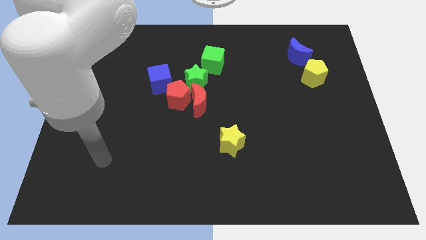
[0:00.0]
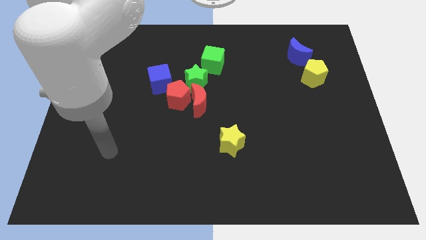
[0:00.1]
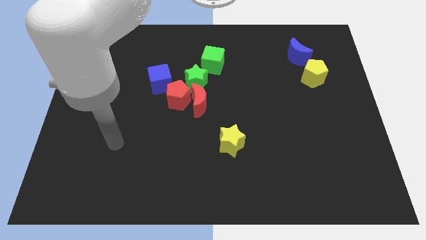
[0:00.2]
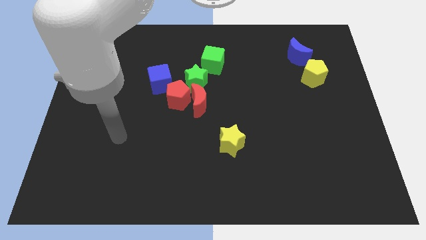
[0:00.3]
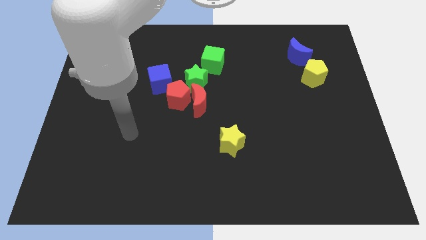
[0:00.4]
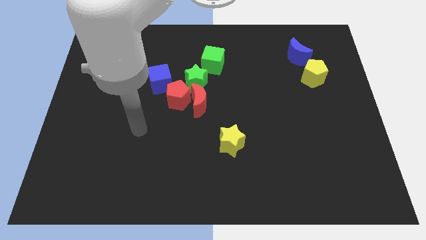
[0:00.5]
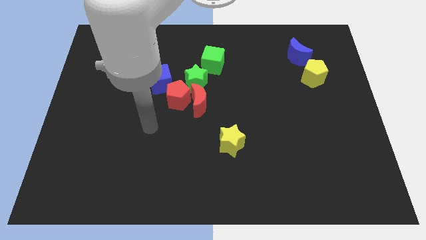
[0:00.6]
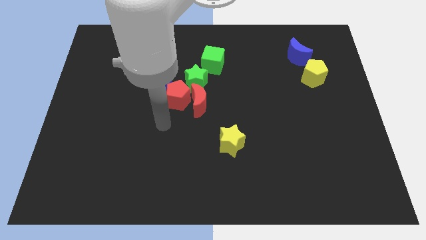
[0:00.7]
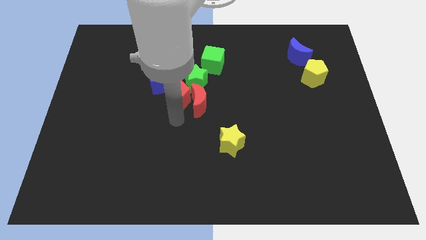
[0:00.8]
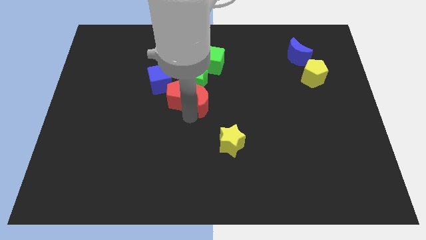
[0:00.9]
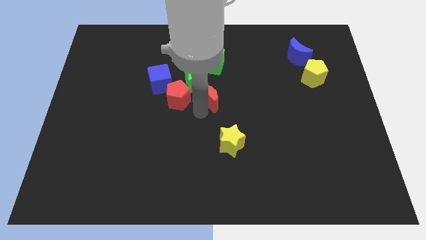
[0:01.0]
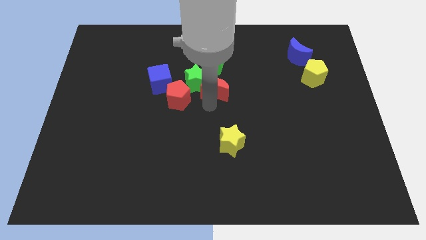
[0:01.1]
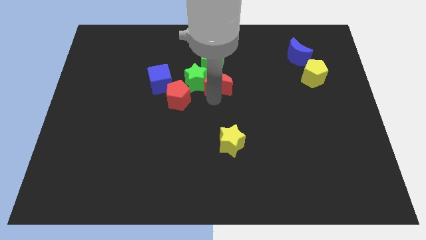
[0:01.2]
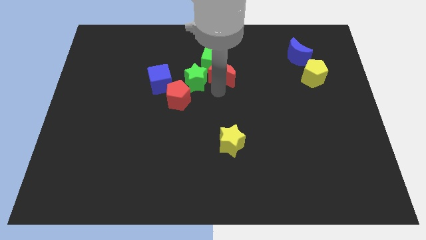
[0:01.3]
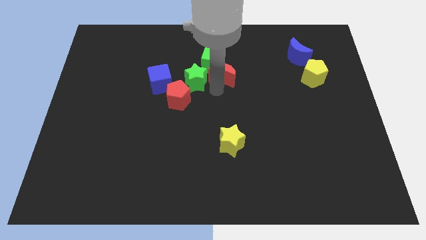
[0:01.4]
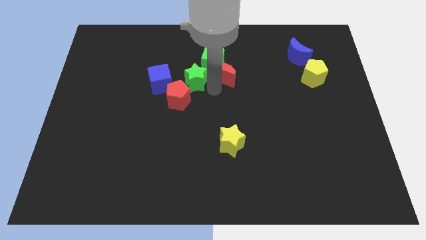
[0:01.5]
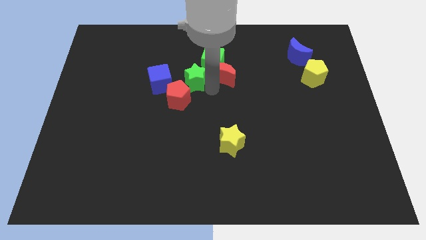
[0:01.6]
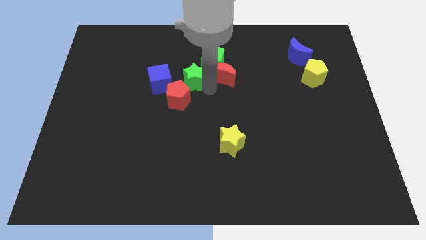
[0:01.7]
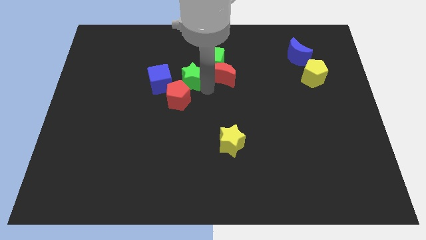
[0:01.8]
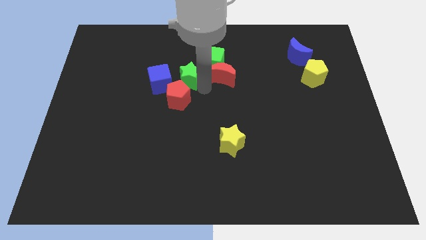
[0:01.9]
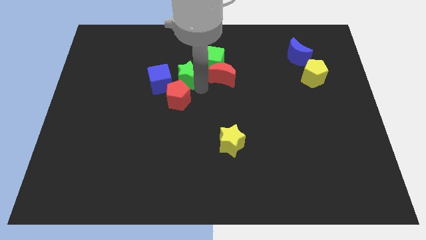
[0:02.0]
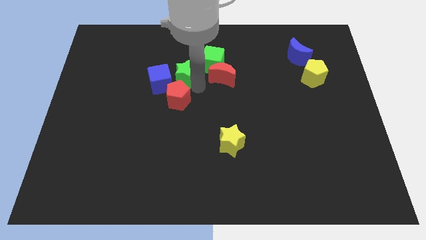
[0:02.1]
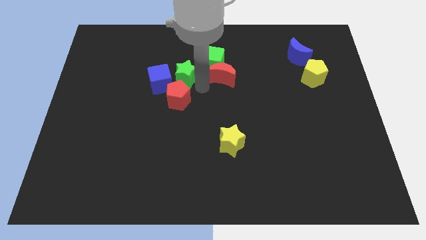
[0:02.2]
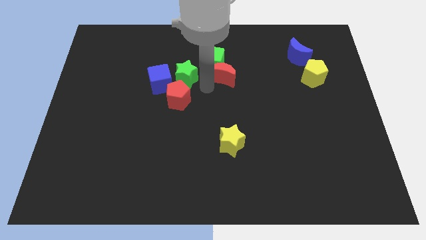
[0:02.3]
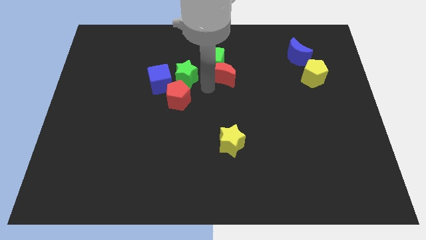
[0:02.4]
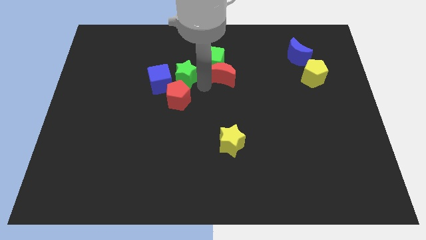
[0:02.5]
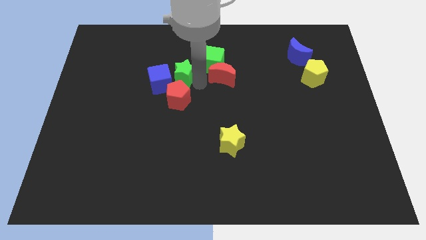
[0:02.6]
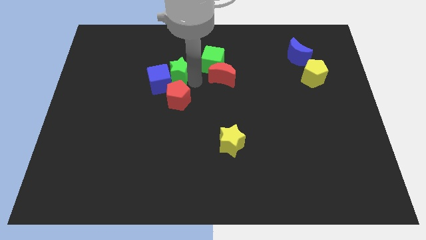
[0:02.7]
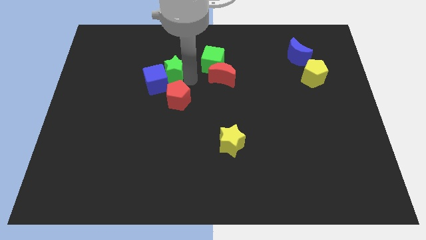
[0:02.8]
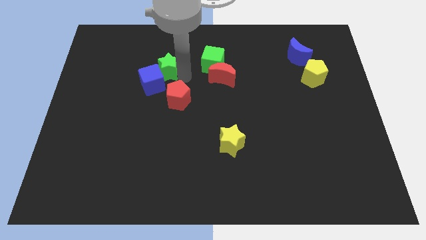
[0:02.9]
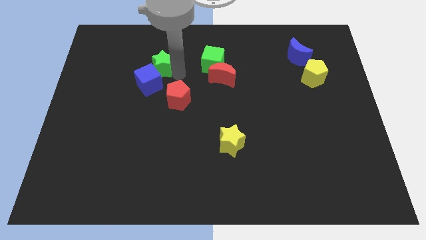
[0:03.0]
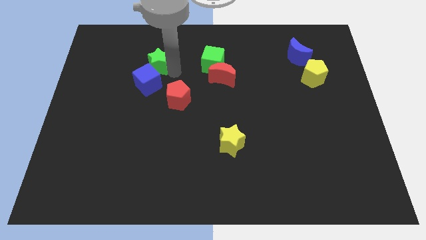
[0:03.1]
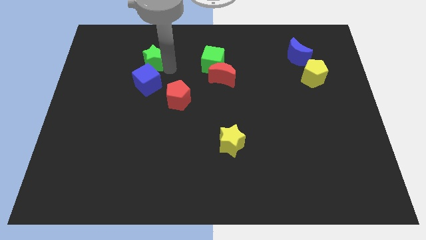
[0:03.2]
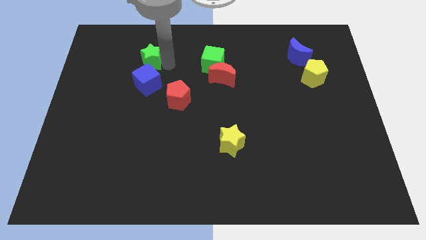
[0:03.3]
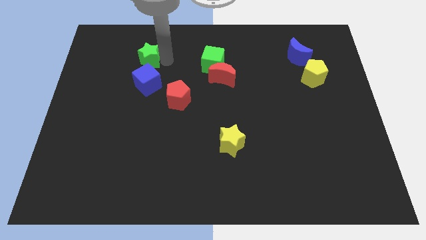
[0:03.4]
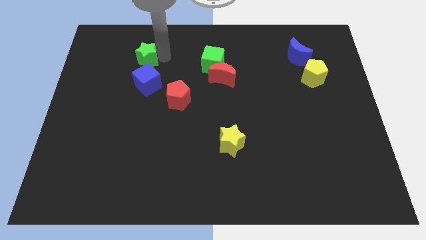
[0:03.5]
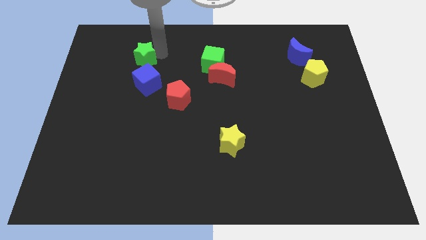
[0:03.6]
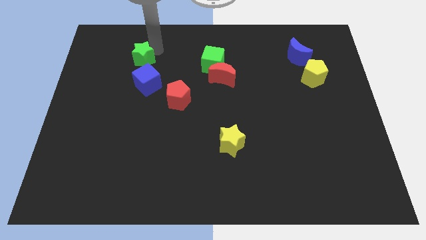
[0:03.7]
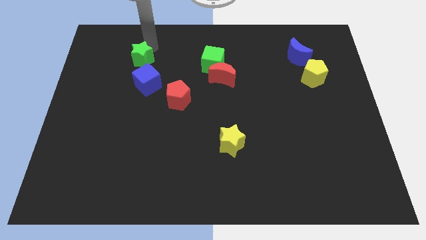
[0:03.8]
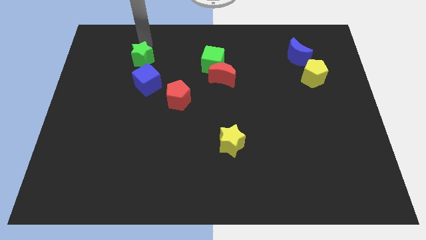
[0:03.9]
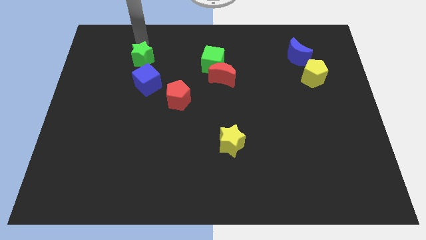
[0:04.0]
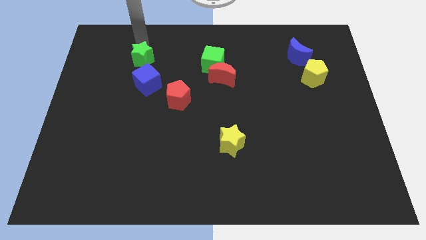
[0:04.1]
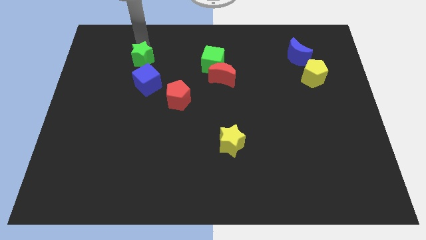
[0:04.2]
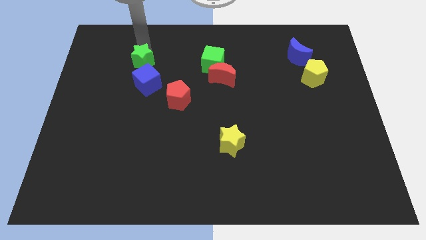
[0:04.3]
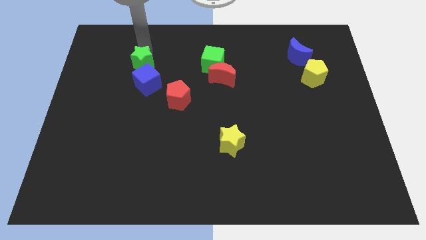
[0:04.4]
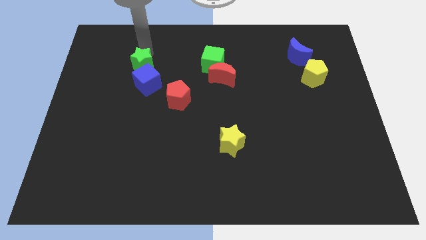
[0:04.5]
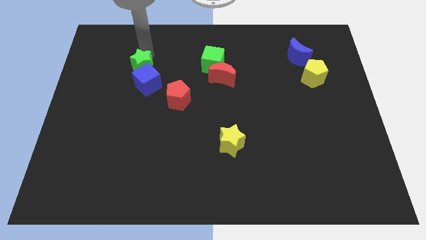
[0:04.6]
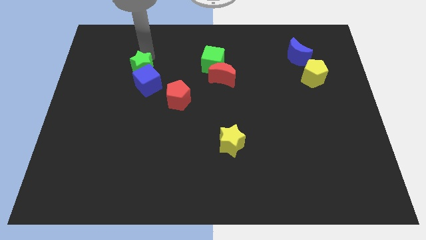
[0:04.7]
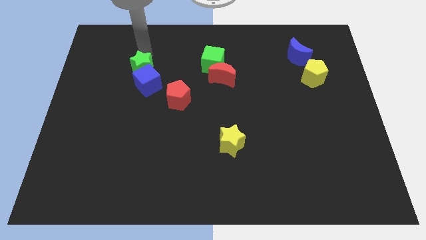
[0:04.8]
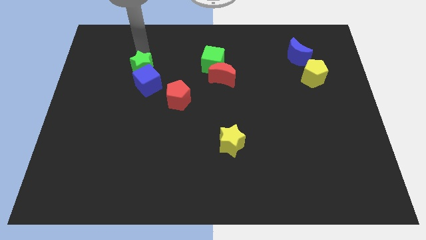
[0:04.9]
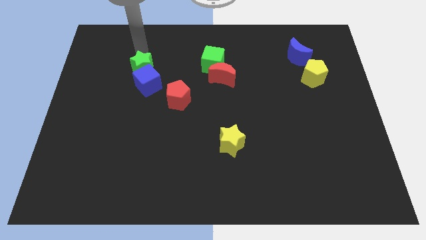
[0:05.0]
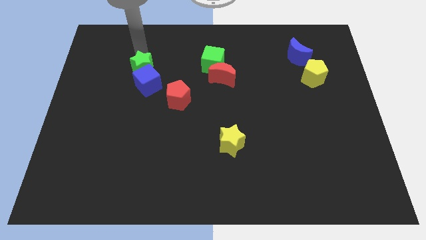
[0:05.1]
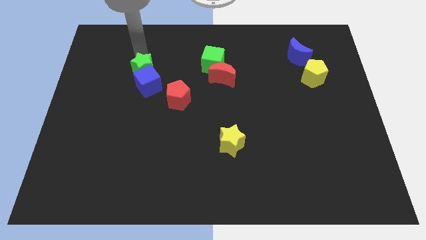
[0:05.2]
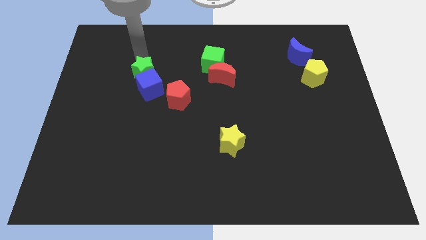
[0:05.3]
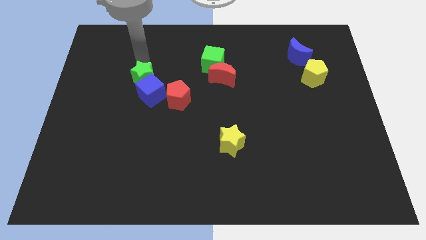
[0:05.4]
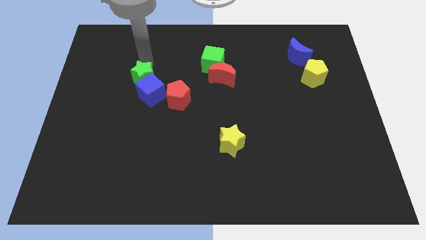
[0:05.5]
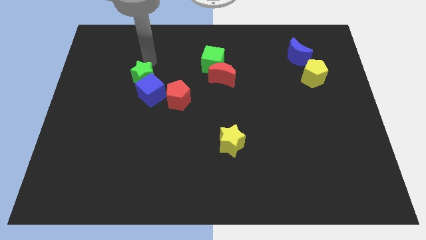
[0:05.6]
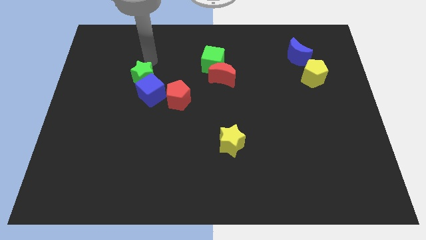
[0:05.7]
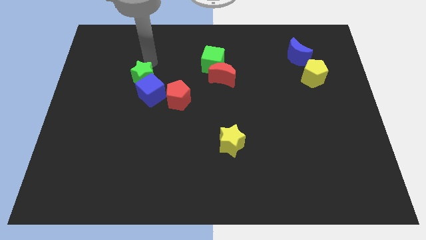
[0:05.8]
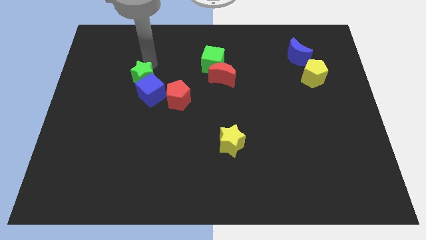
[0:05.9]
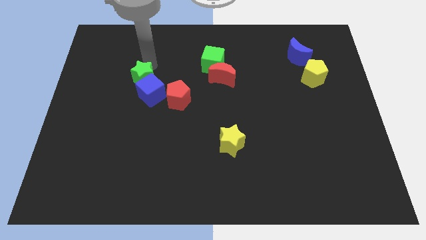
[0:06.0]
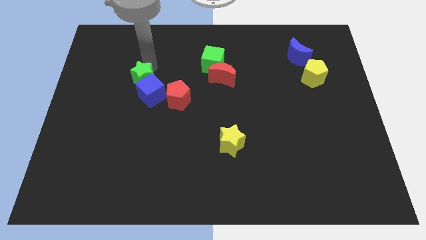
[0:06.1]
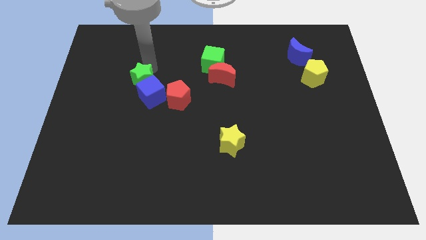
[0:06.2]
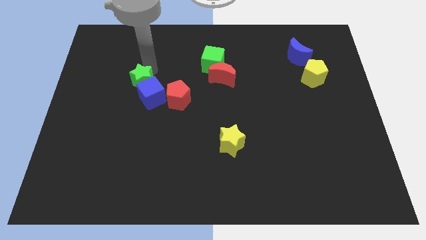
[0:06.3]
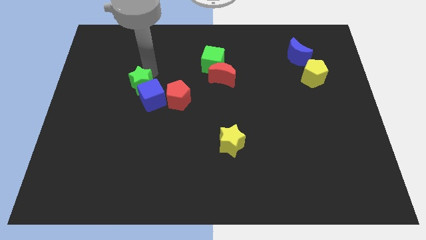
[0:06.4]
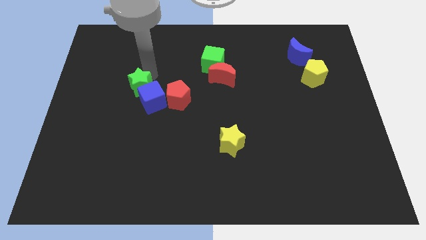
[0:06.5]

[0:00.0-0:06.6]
push the green star somewhat down and to the left diagonally

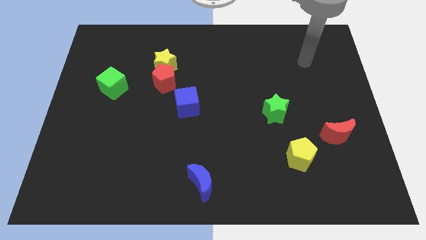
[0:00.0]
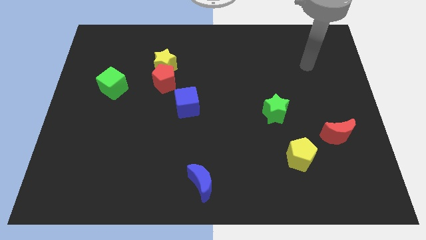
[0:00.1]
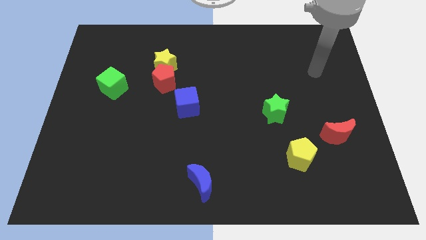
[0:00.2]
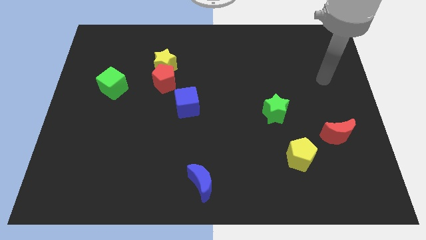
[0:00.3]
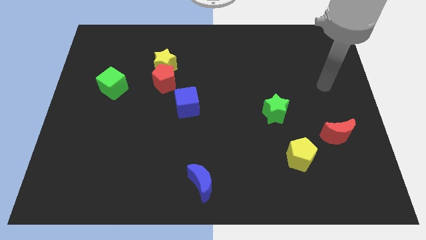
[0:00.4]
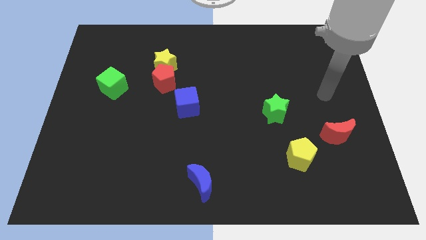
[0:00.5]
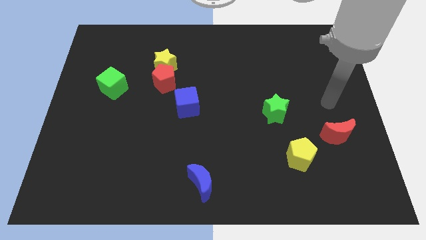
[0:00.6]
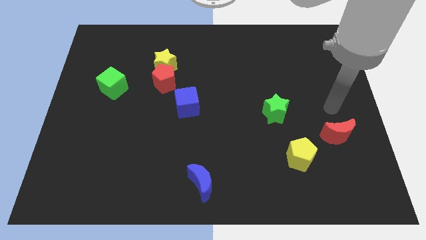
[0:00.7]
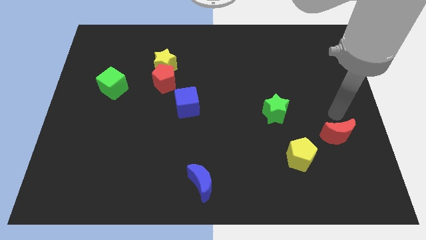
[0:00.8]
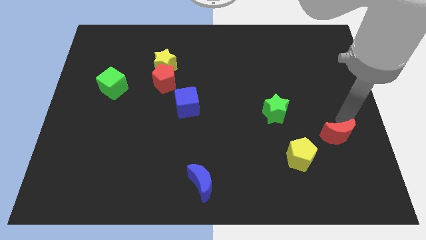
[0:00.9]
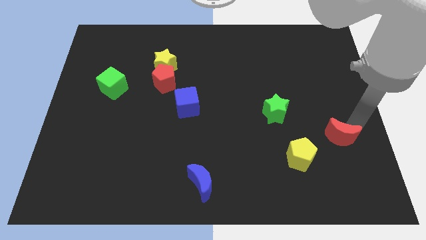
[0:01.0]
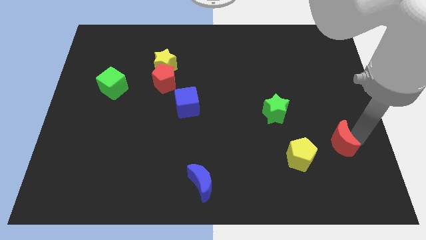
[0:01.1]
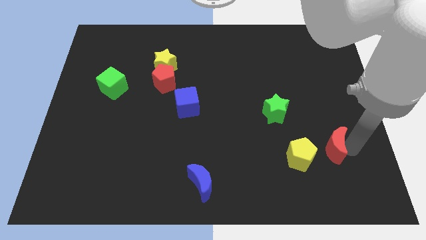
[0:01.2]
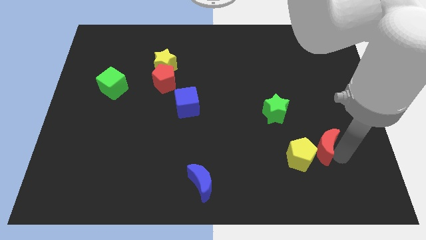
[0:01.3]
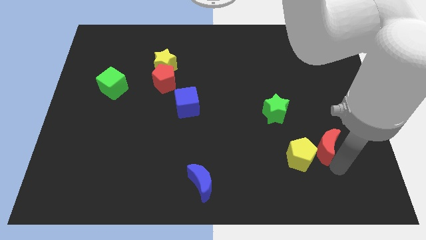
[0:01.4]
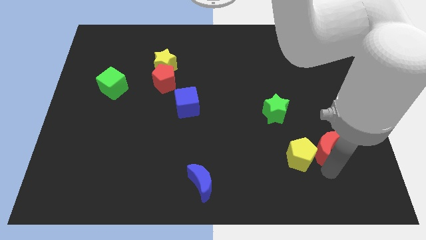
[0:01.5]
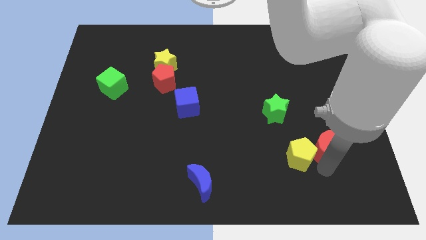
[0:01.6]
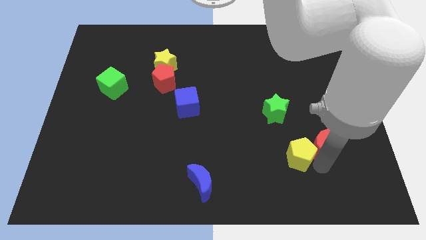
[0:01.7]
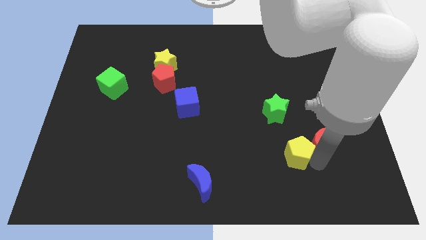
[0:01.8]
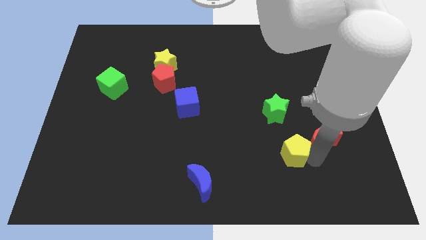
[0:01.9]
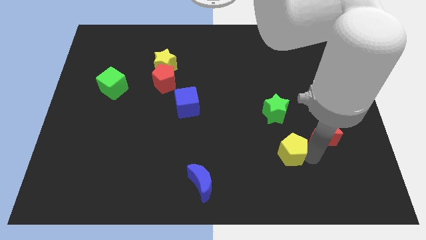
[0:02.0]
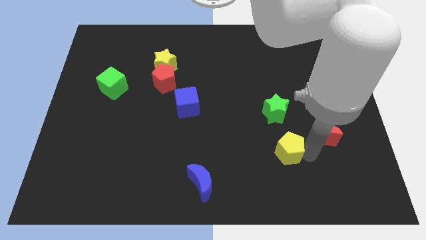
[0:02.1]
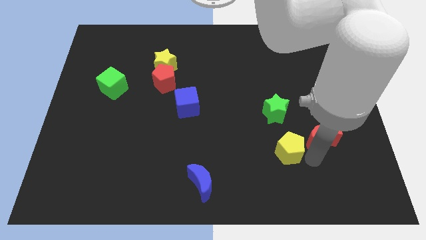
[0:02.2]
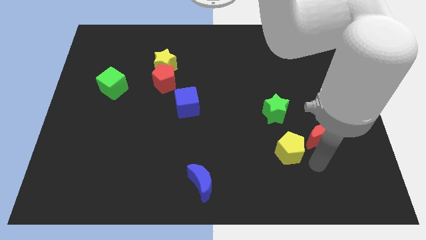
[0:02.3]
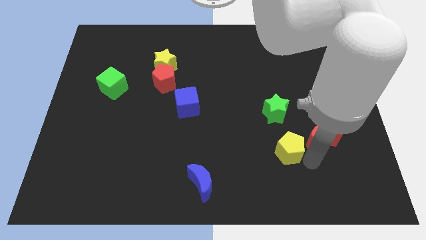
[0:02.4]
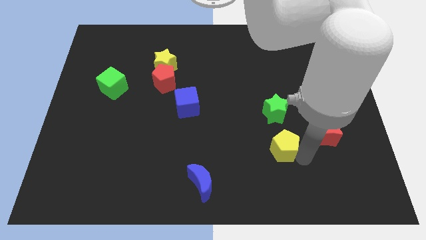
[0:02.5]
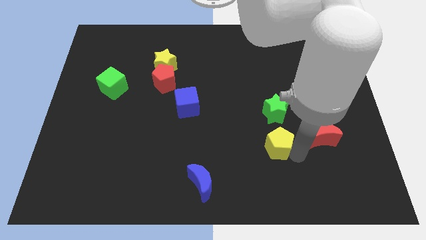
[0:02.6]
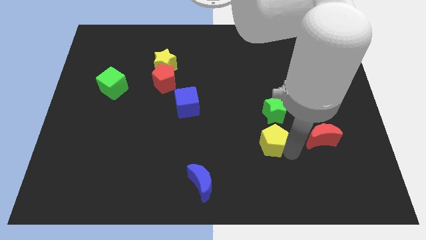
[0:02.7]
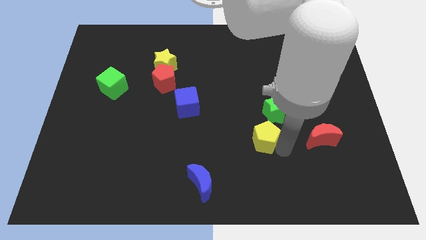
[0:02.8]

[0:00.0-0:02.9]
push the yellow pentagon slightly diagonally upwards and left
